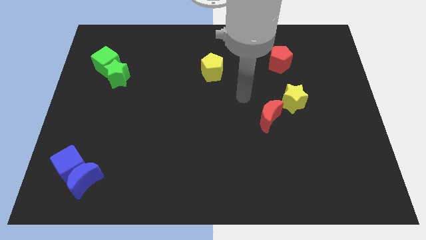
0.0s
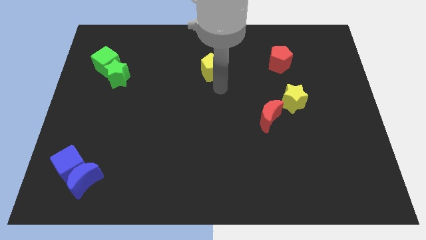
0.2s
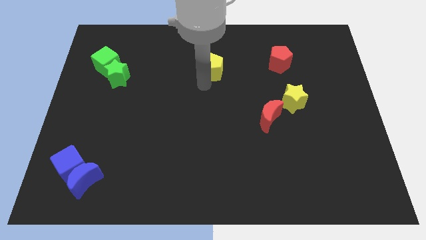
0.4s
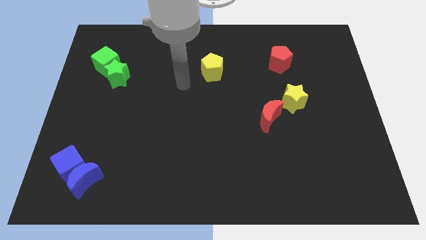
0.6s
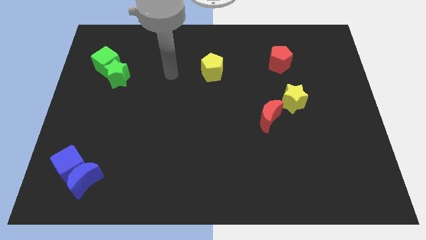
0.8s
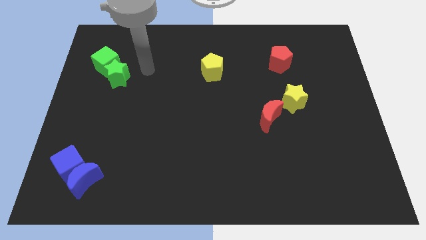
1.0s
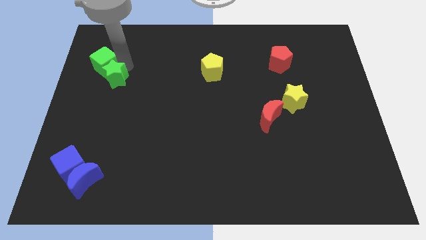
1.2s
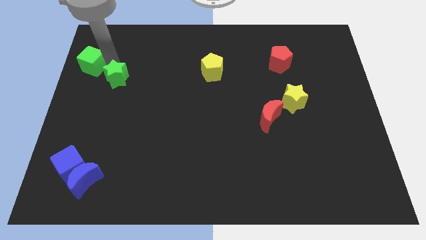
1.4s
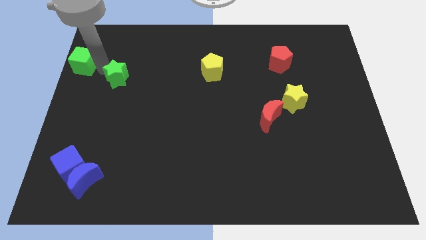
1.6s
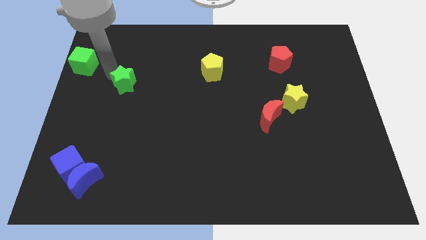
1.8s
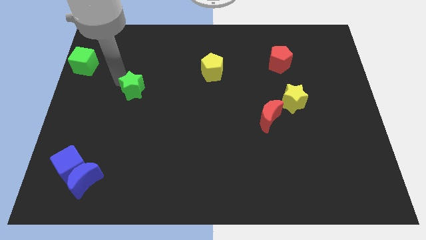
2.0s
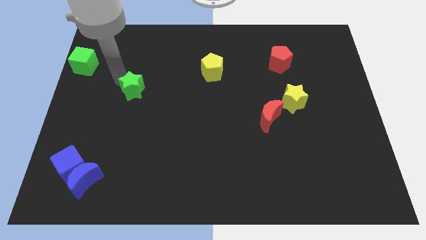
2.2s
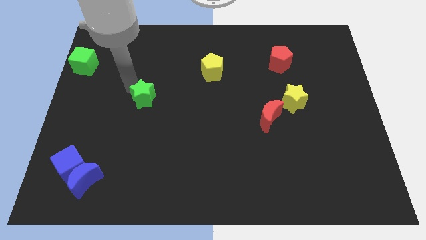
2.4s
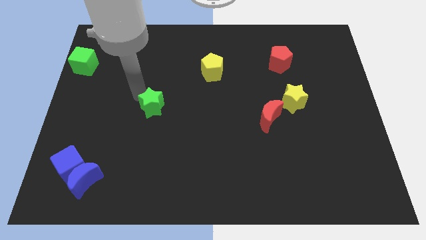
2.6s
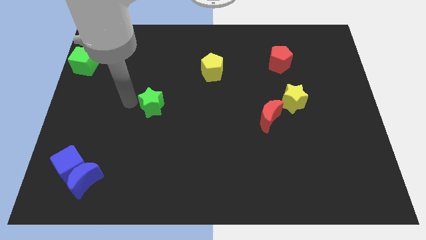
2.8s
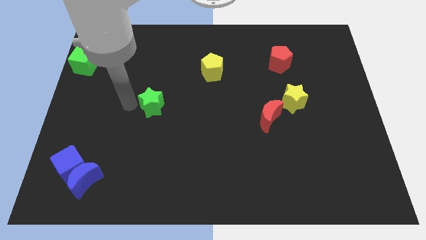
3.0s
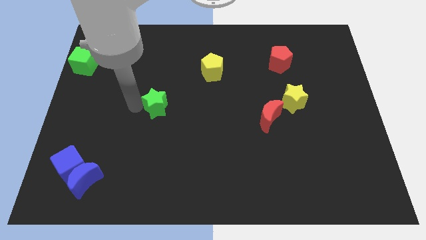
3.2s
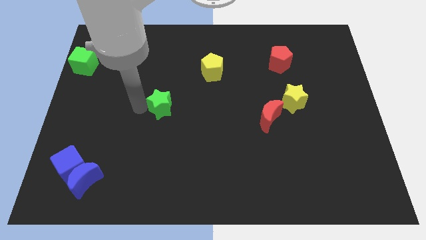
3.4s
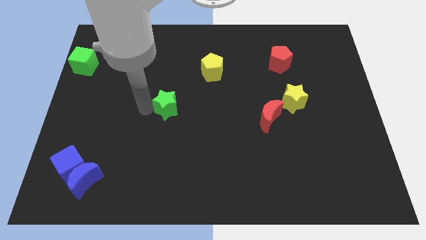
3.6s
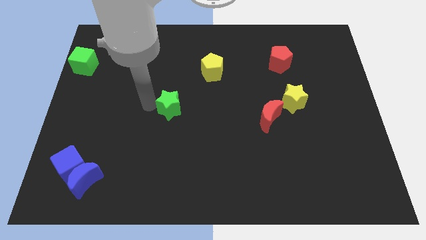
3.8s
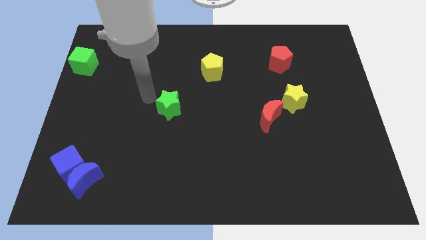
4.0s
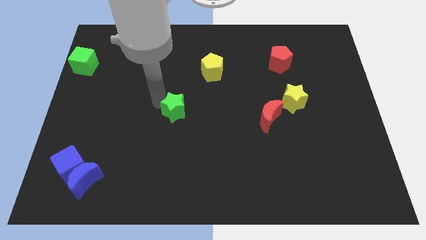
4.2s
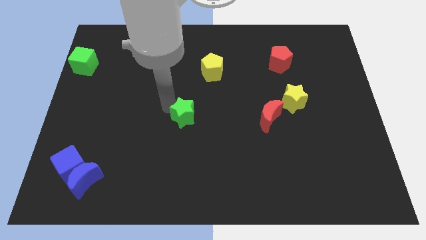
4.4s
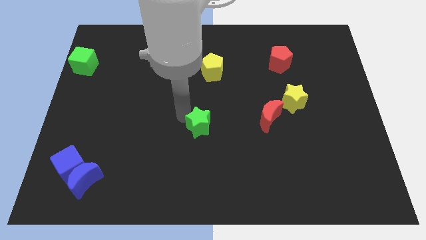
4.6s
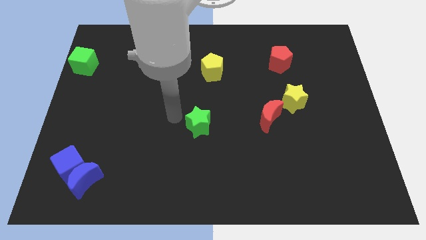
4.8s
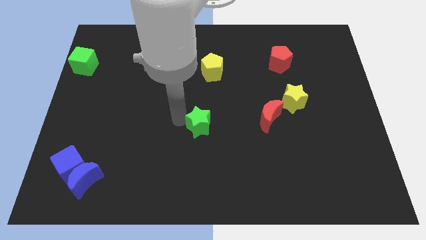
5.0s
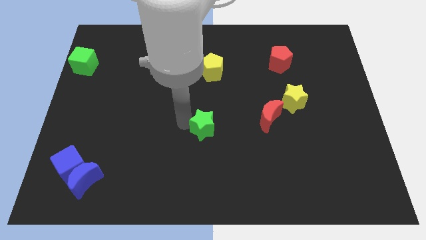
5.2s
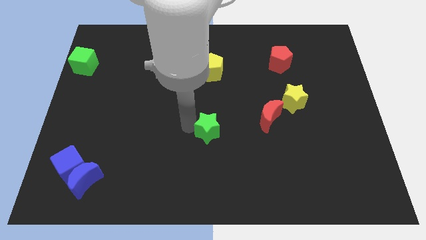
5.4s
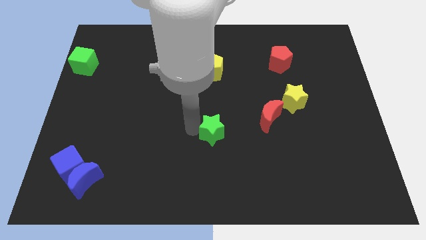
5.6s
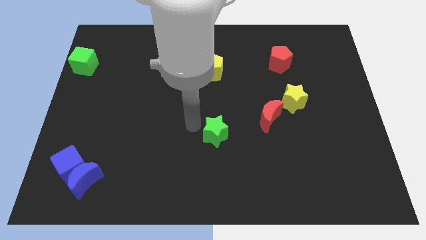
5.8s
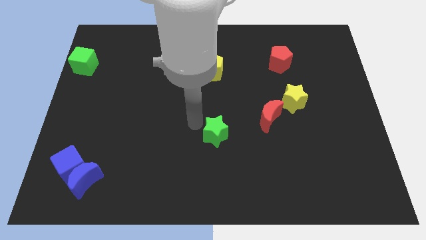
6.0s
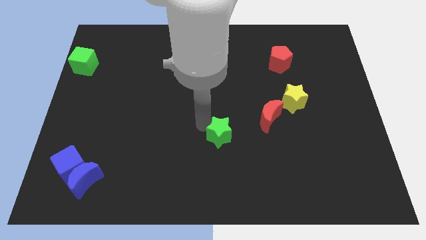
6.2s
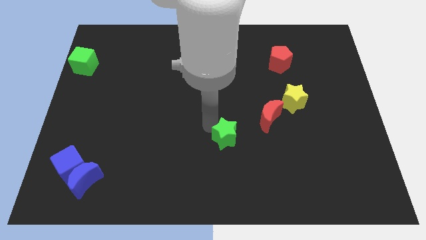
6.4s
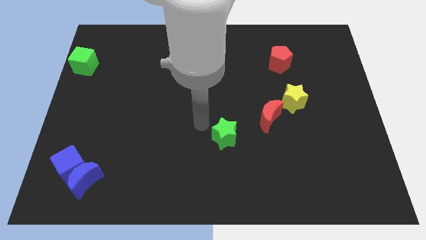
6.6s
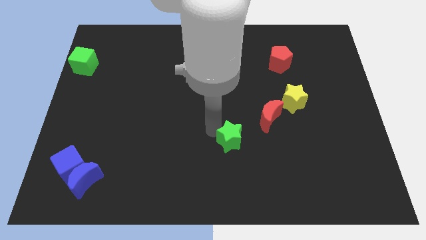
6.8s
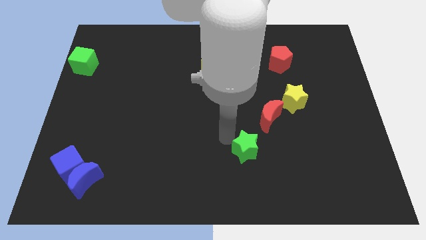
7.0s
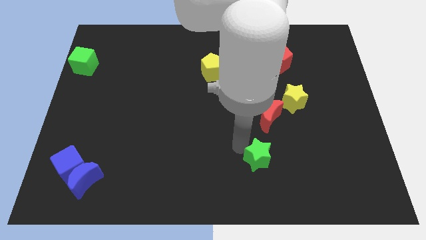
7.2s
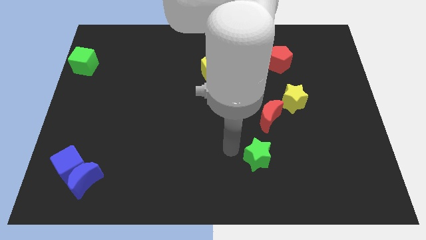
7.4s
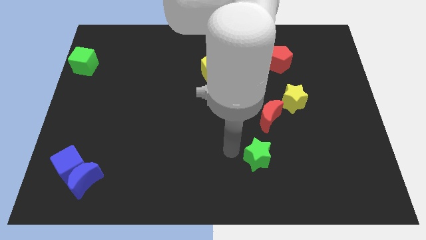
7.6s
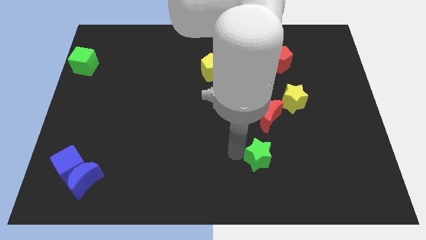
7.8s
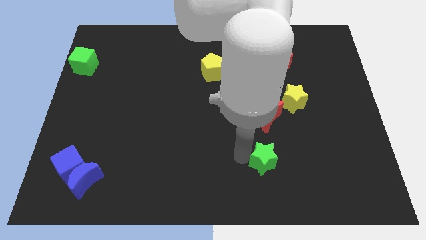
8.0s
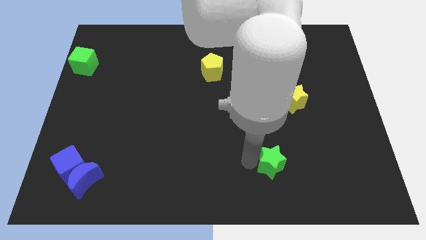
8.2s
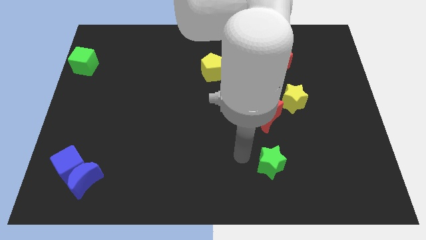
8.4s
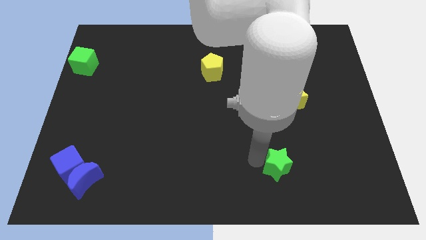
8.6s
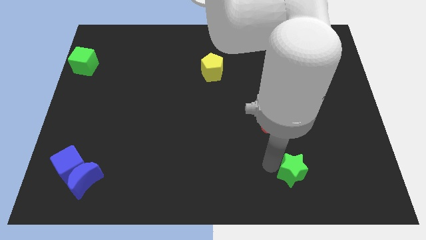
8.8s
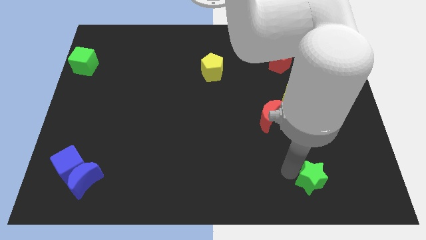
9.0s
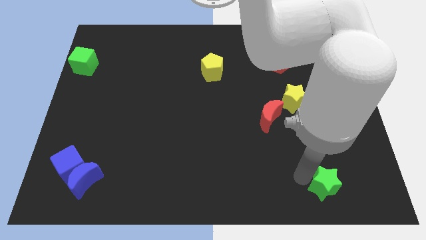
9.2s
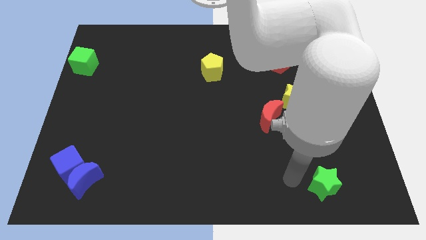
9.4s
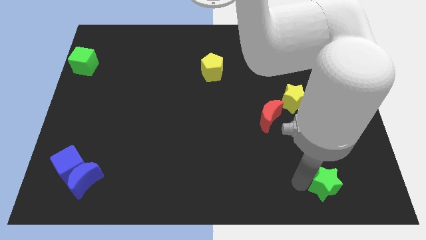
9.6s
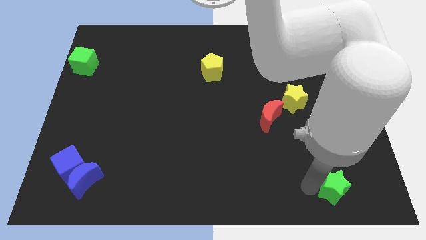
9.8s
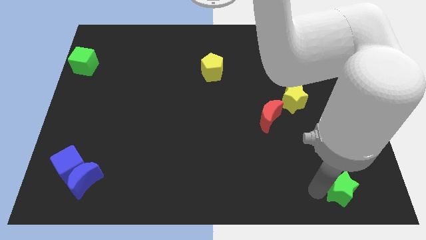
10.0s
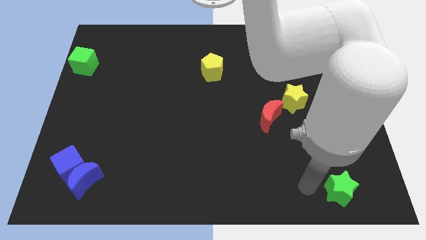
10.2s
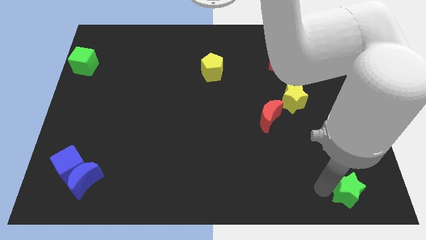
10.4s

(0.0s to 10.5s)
slide the green star to the bottom right of the board

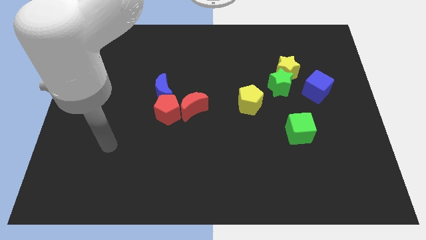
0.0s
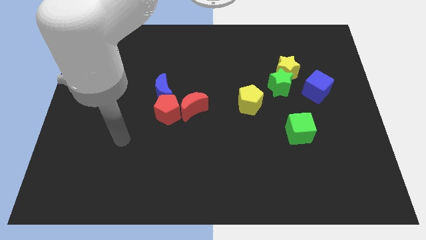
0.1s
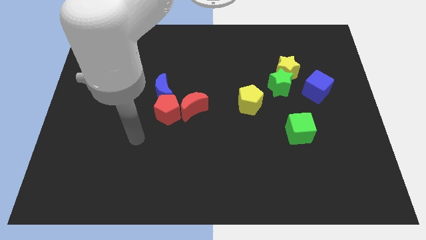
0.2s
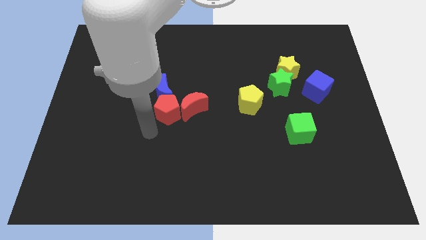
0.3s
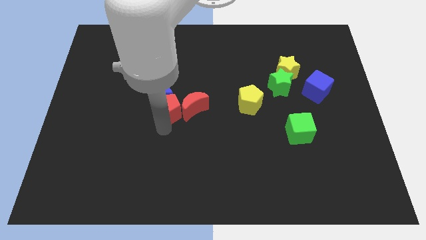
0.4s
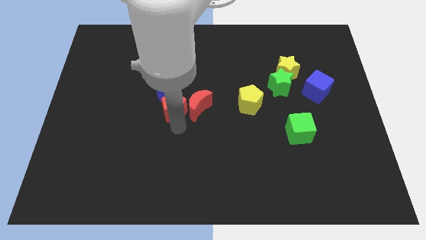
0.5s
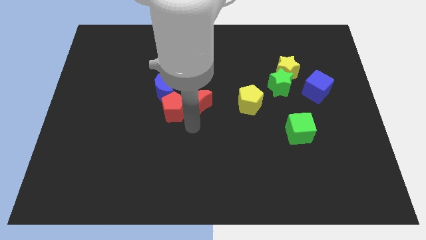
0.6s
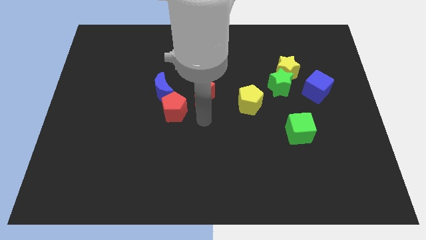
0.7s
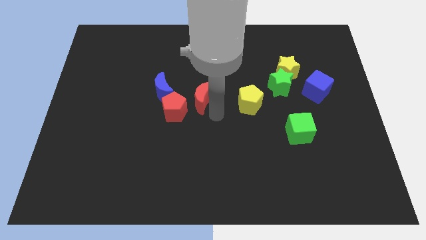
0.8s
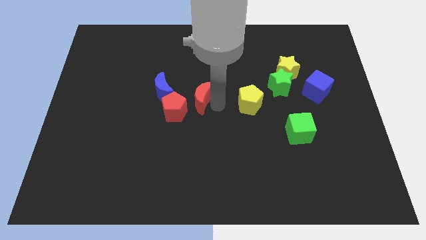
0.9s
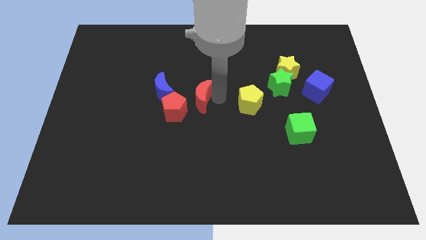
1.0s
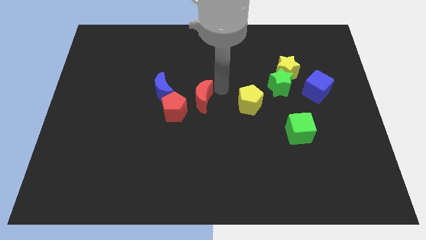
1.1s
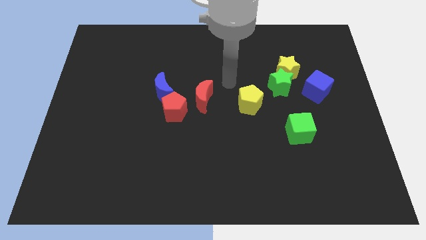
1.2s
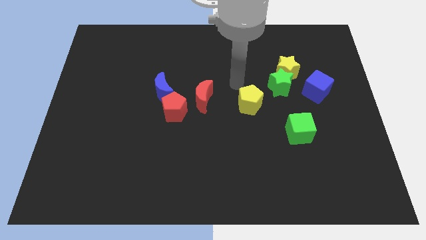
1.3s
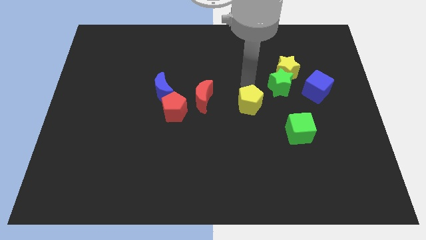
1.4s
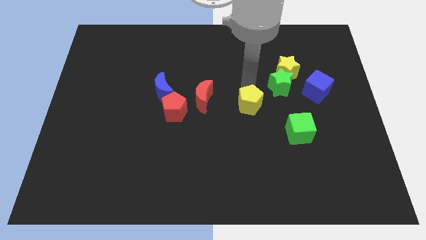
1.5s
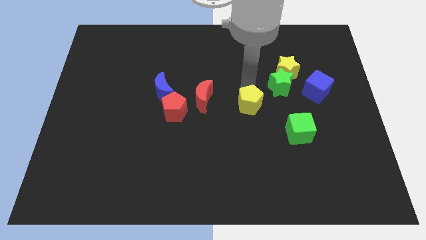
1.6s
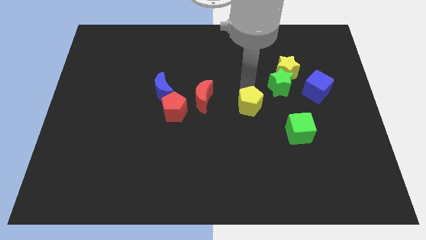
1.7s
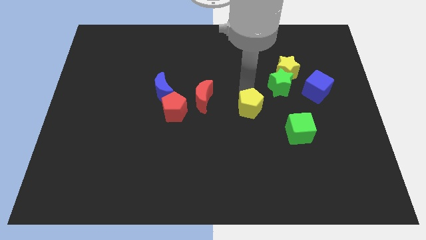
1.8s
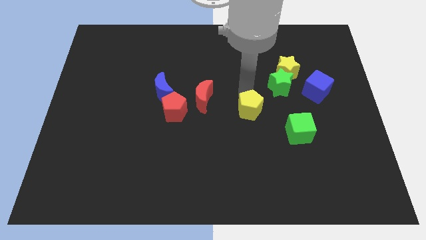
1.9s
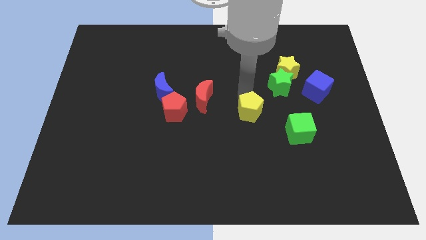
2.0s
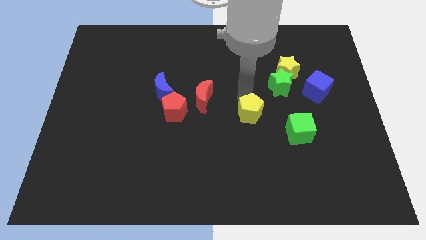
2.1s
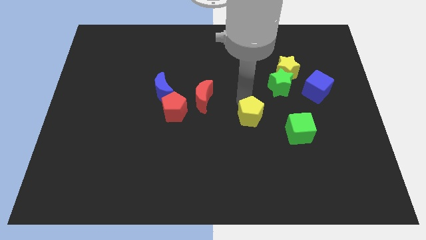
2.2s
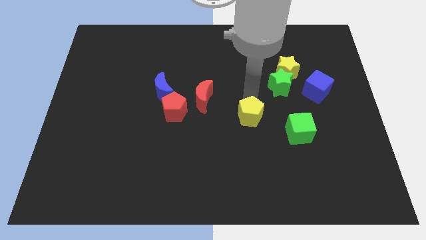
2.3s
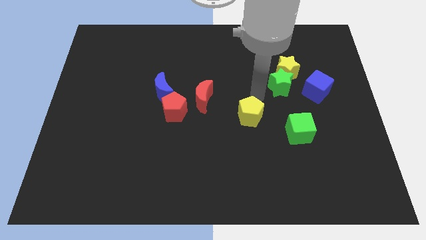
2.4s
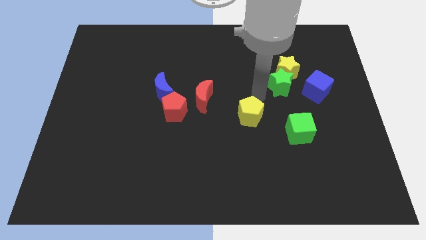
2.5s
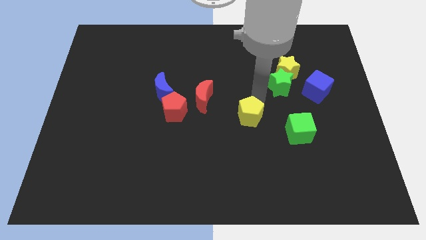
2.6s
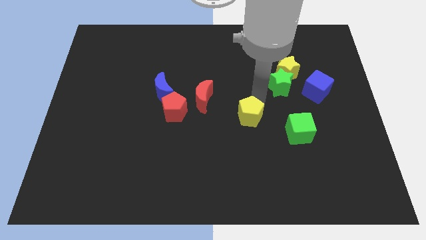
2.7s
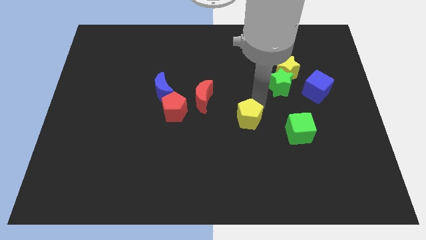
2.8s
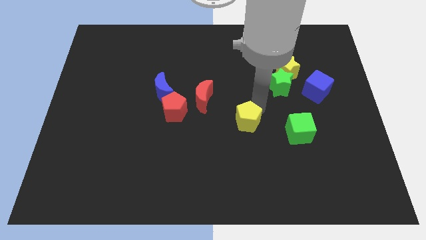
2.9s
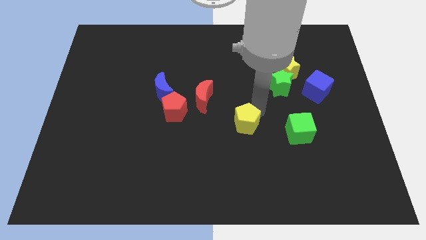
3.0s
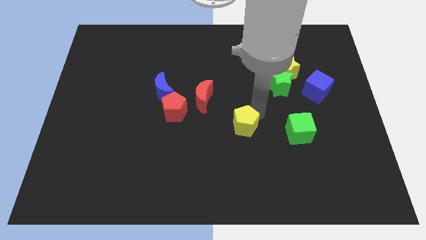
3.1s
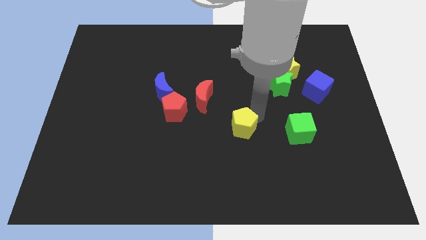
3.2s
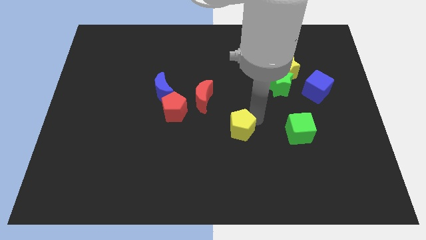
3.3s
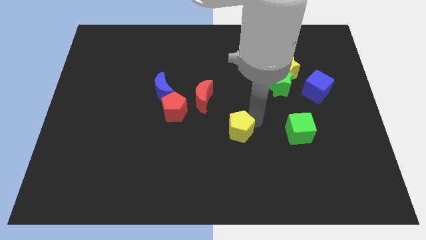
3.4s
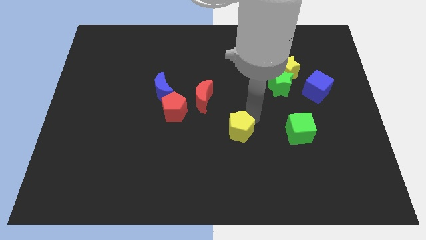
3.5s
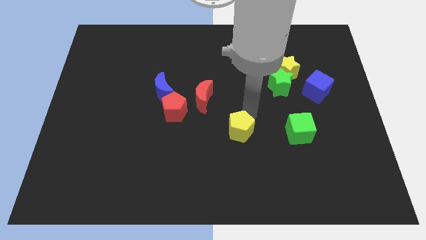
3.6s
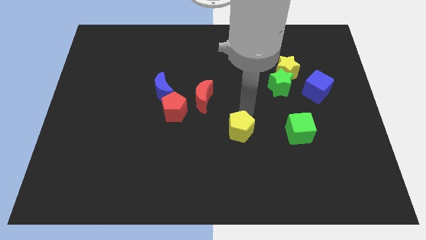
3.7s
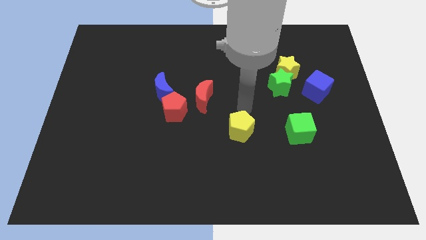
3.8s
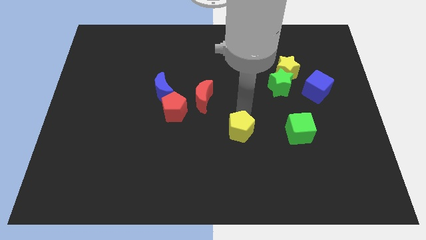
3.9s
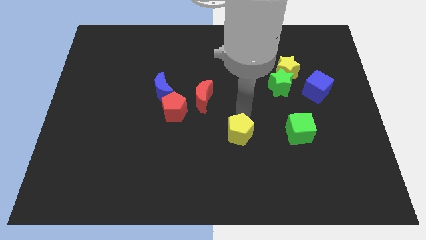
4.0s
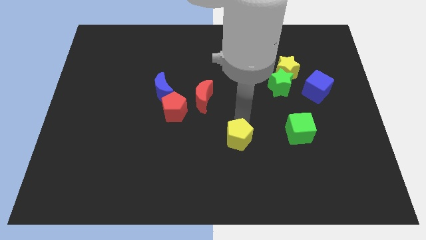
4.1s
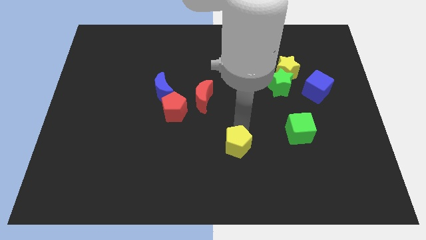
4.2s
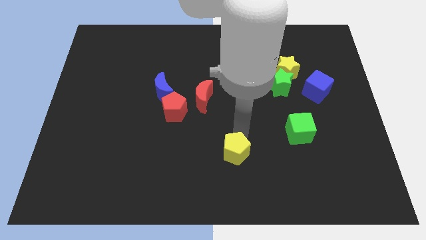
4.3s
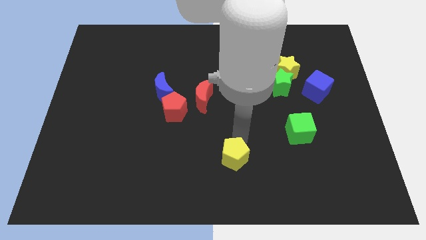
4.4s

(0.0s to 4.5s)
slide the yellow pentagon to the bottom side
